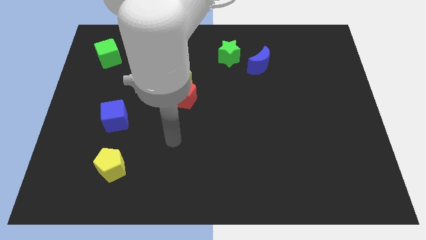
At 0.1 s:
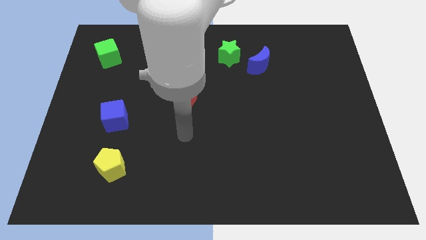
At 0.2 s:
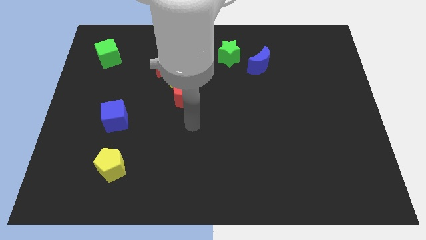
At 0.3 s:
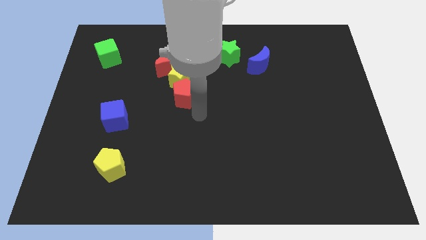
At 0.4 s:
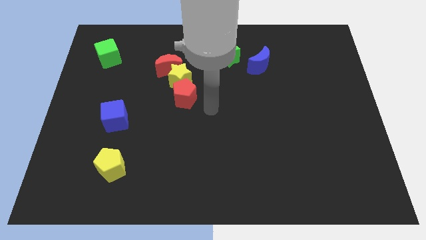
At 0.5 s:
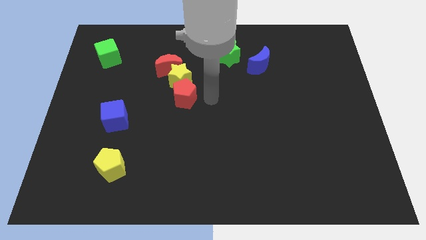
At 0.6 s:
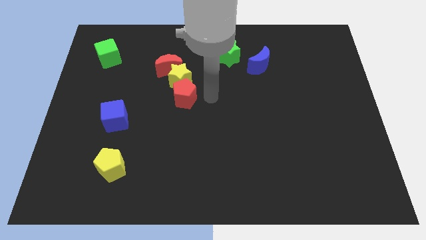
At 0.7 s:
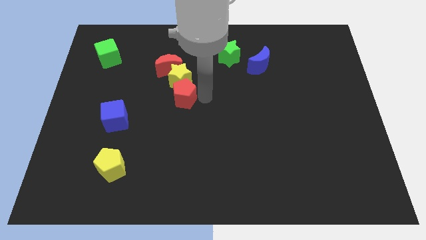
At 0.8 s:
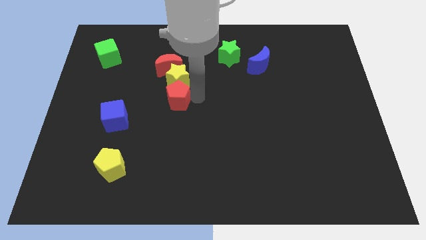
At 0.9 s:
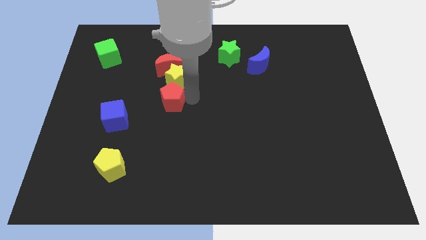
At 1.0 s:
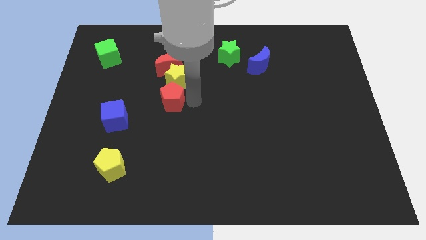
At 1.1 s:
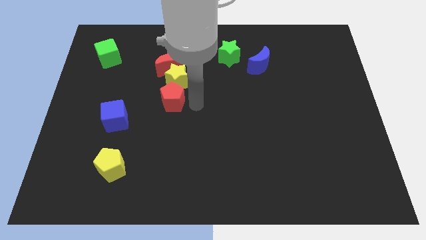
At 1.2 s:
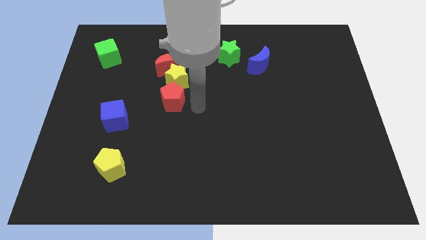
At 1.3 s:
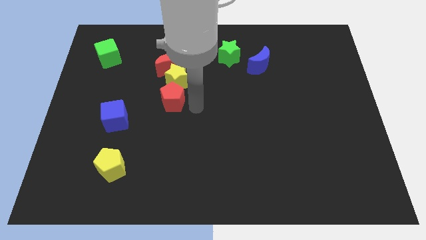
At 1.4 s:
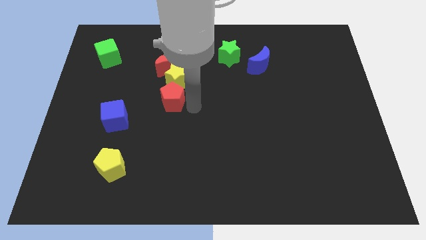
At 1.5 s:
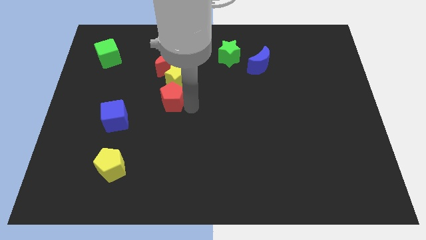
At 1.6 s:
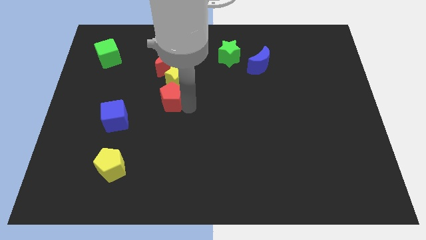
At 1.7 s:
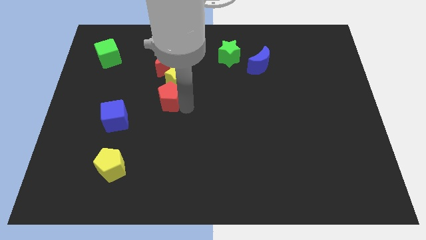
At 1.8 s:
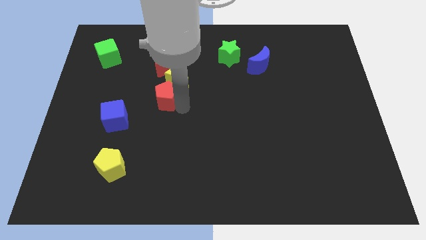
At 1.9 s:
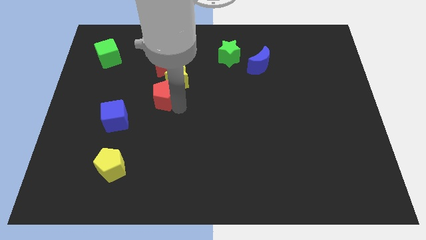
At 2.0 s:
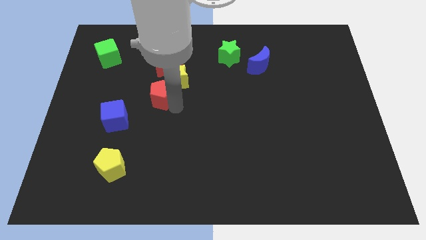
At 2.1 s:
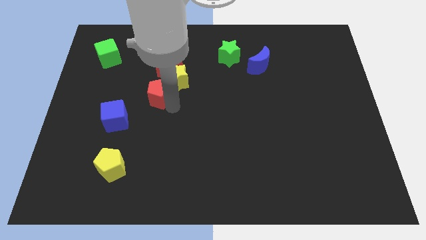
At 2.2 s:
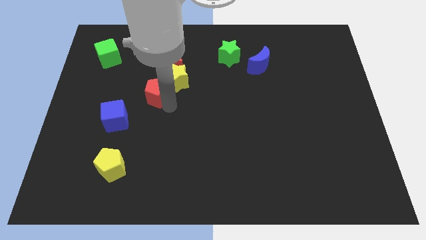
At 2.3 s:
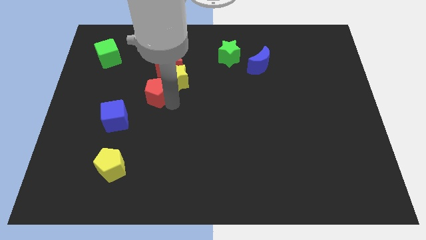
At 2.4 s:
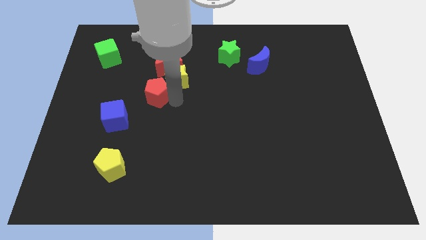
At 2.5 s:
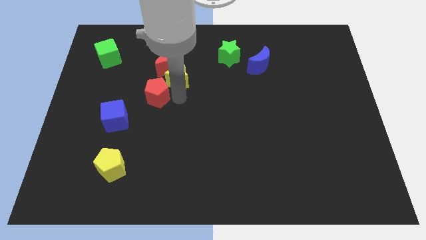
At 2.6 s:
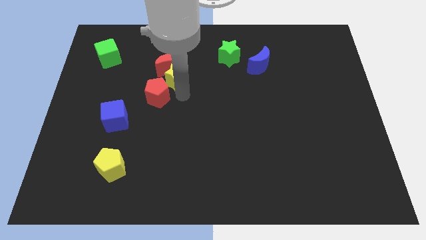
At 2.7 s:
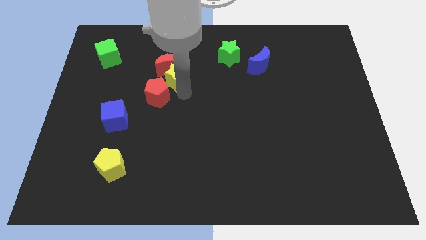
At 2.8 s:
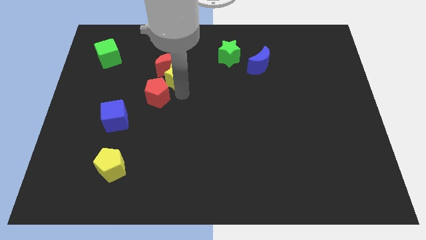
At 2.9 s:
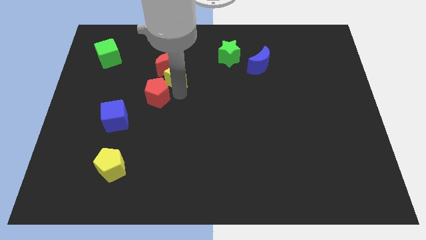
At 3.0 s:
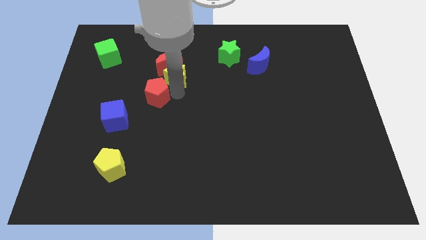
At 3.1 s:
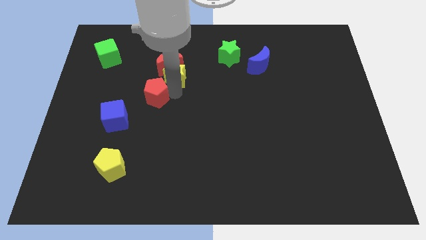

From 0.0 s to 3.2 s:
slightly move the red pentagon to the left

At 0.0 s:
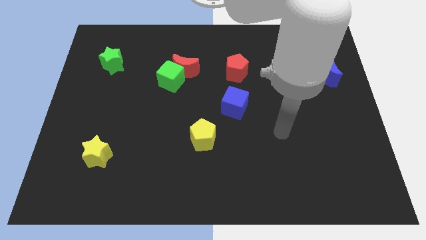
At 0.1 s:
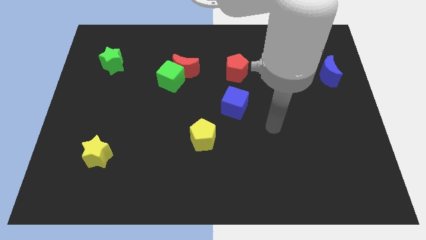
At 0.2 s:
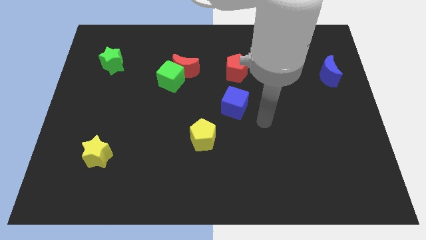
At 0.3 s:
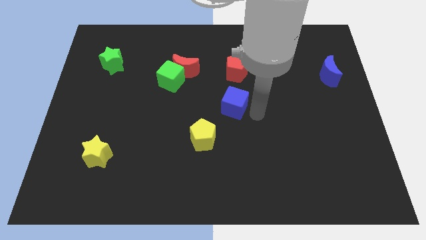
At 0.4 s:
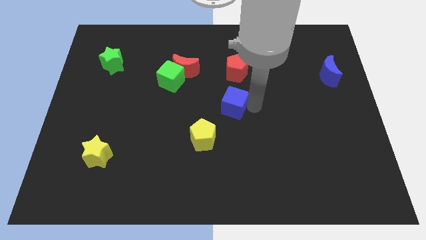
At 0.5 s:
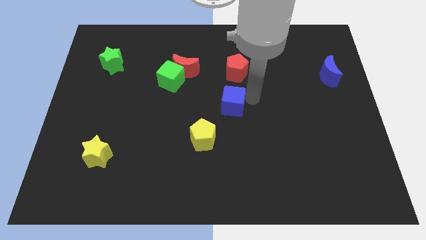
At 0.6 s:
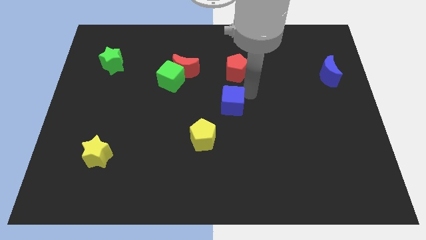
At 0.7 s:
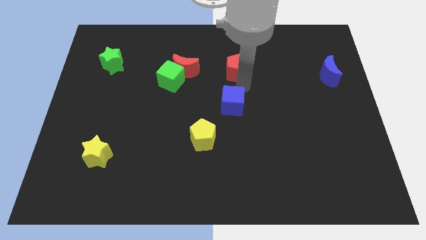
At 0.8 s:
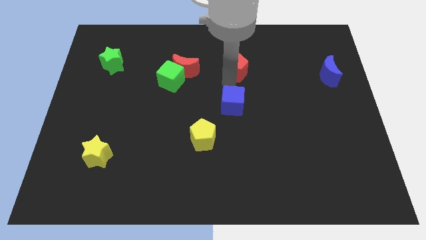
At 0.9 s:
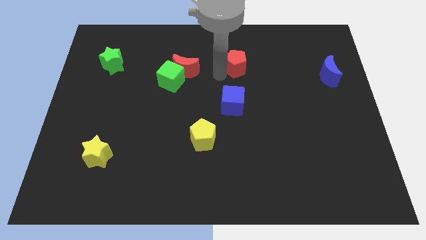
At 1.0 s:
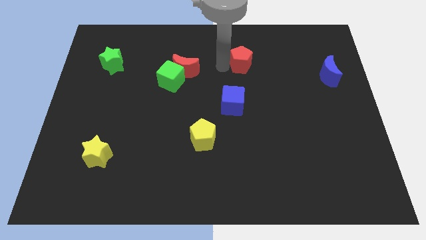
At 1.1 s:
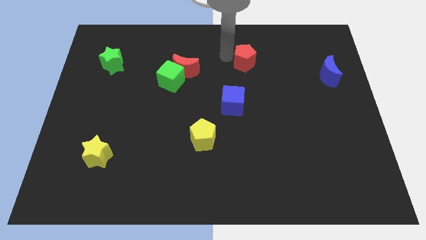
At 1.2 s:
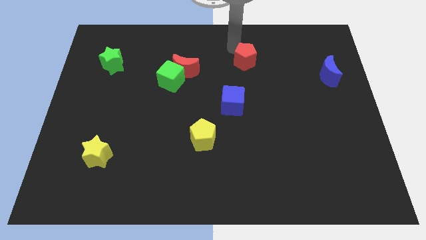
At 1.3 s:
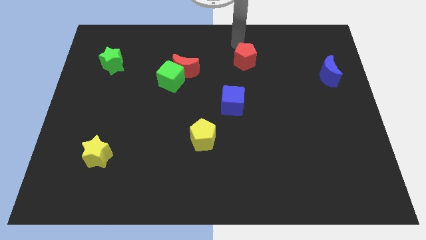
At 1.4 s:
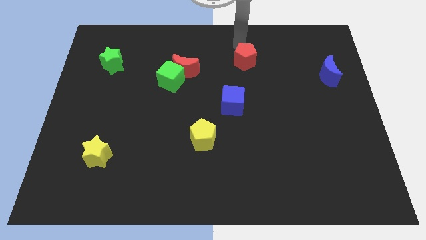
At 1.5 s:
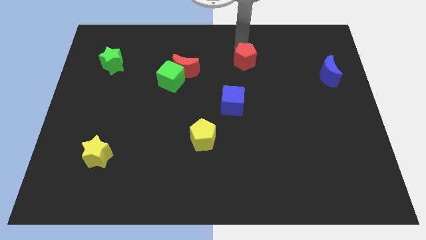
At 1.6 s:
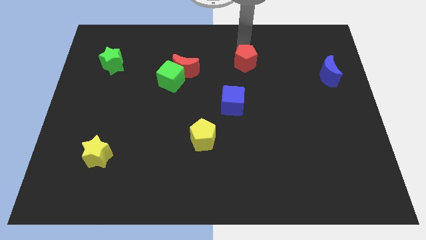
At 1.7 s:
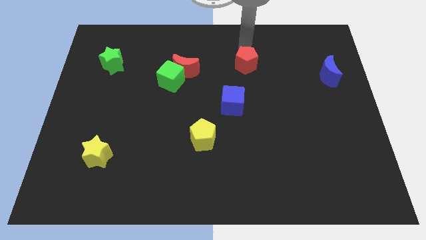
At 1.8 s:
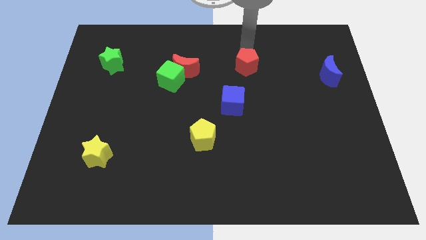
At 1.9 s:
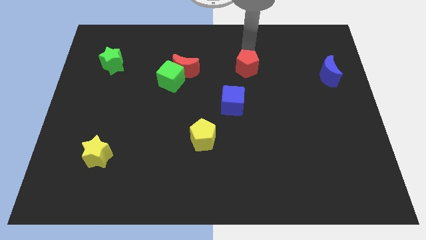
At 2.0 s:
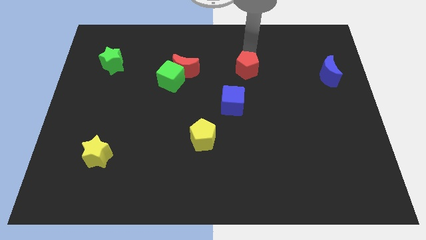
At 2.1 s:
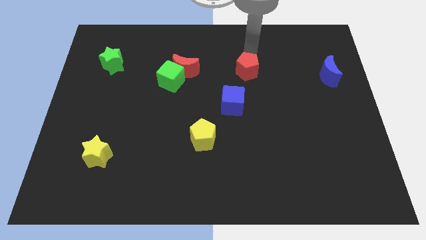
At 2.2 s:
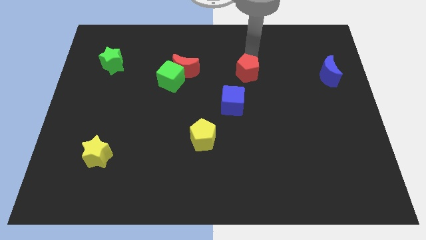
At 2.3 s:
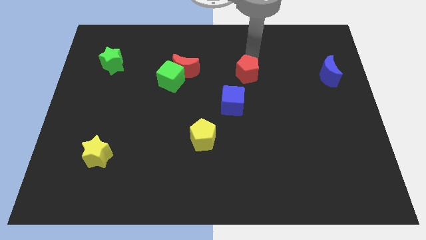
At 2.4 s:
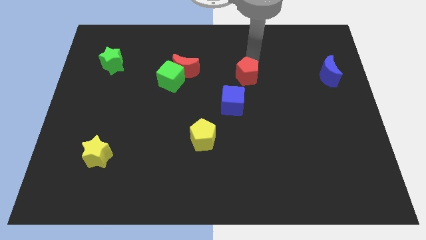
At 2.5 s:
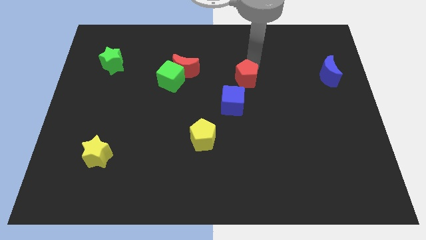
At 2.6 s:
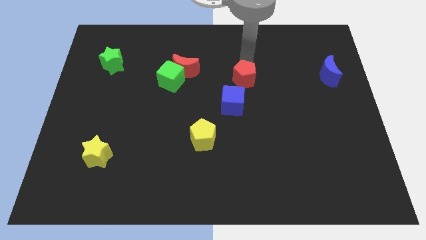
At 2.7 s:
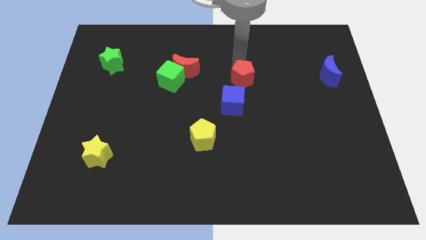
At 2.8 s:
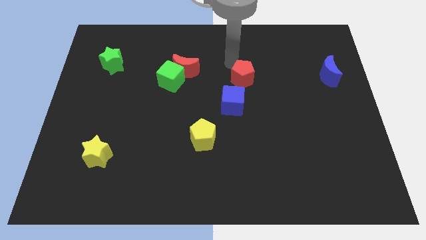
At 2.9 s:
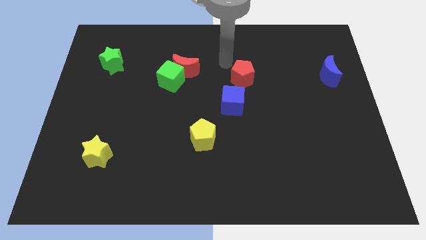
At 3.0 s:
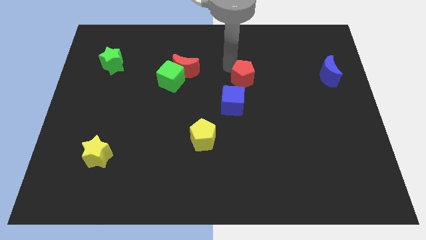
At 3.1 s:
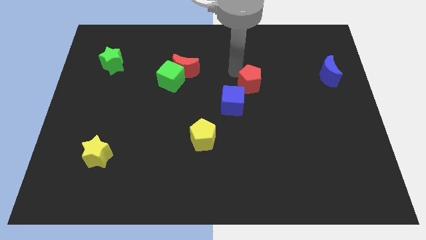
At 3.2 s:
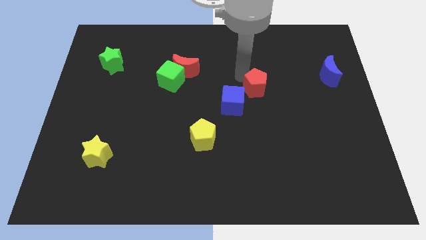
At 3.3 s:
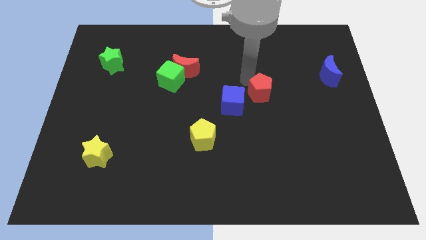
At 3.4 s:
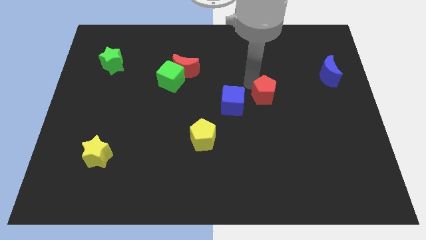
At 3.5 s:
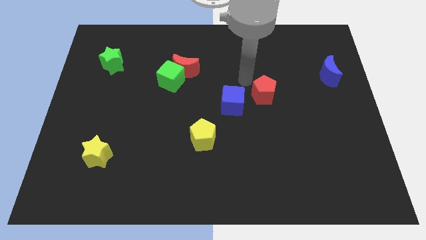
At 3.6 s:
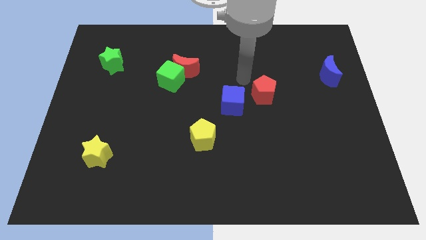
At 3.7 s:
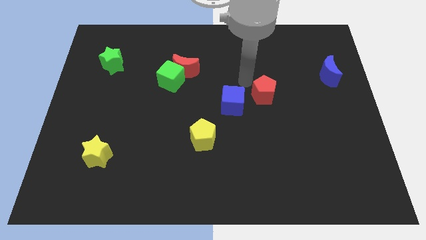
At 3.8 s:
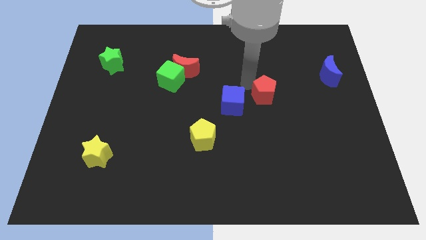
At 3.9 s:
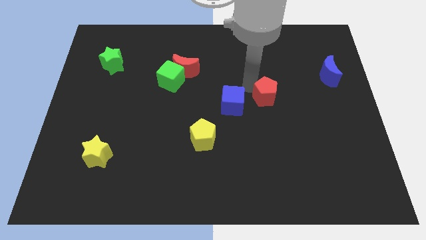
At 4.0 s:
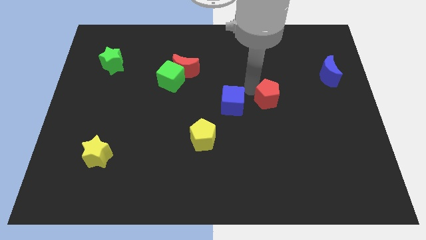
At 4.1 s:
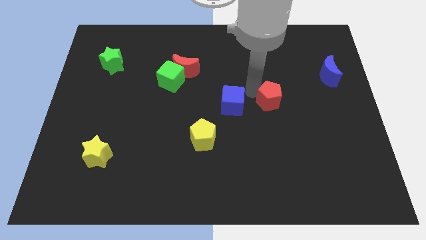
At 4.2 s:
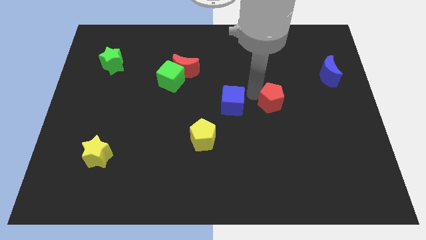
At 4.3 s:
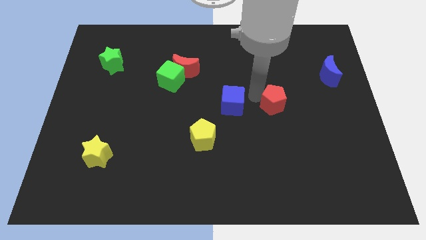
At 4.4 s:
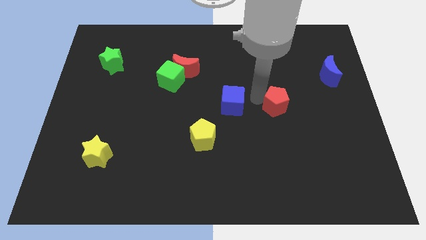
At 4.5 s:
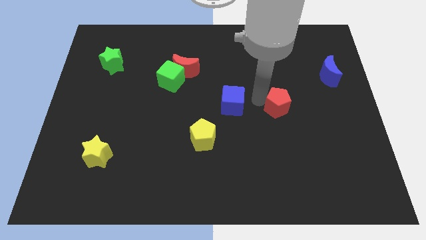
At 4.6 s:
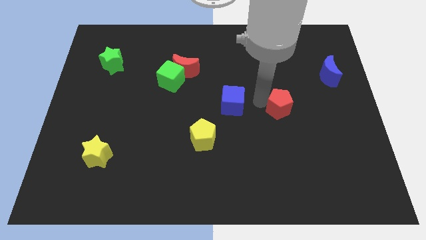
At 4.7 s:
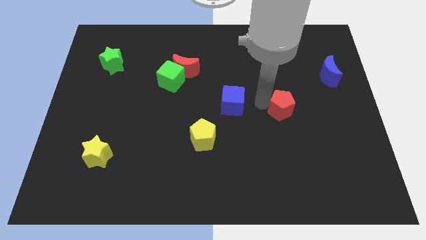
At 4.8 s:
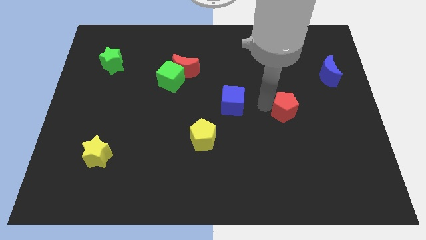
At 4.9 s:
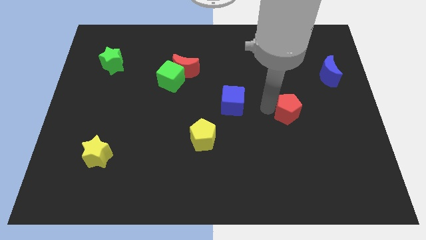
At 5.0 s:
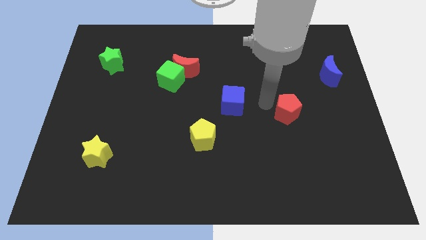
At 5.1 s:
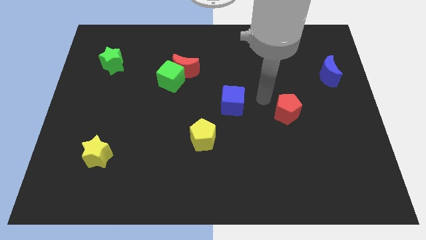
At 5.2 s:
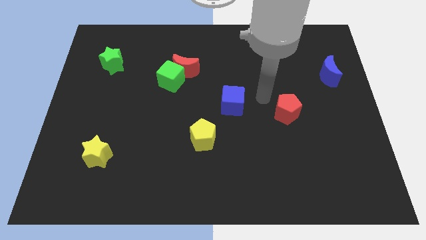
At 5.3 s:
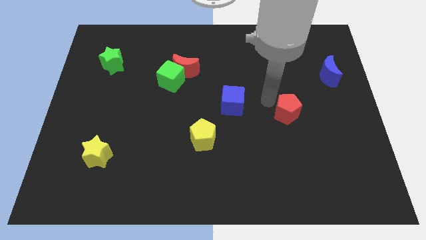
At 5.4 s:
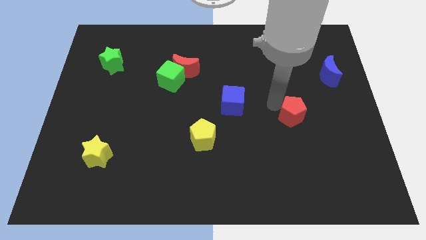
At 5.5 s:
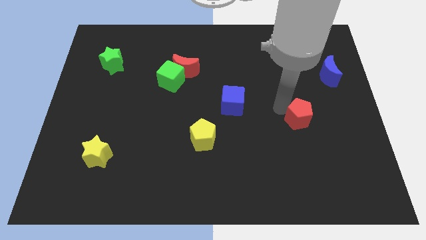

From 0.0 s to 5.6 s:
move the red pentagon diagonally downwards and right
